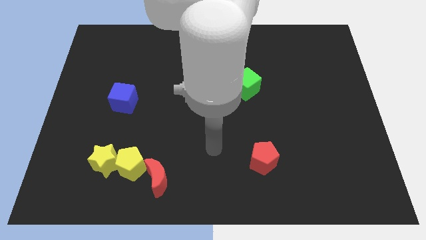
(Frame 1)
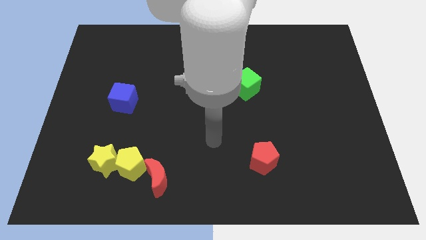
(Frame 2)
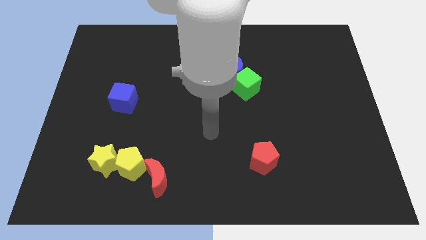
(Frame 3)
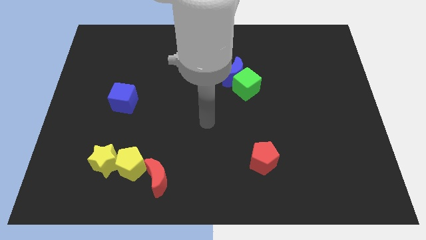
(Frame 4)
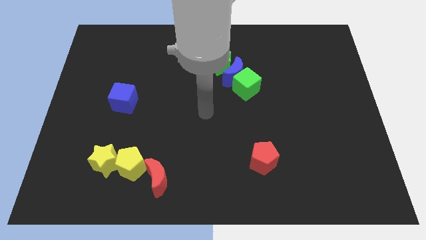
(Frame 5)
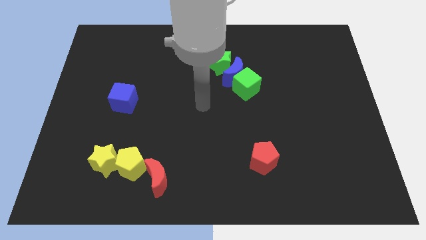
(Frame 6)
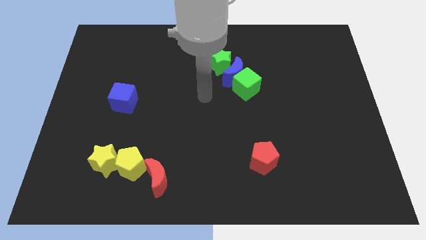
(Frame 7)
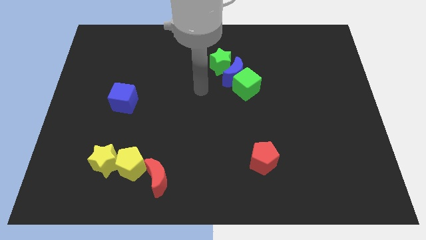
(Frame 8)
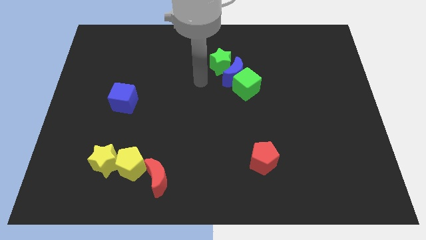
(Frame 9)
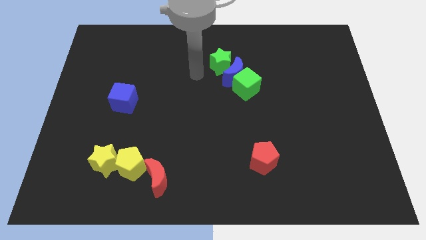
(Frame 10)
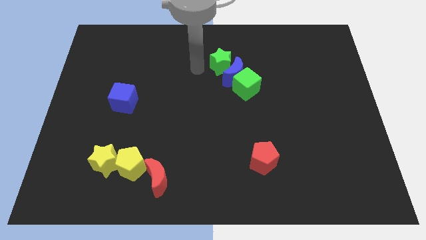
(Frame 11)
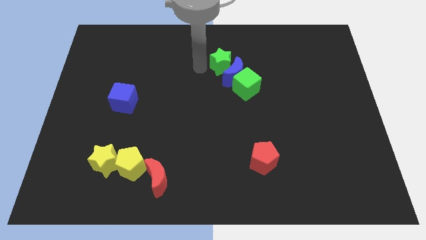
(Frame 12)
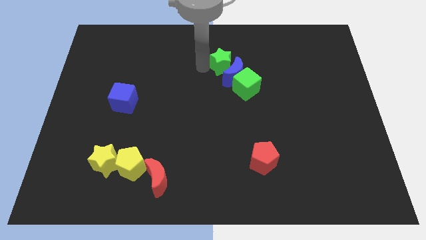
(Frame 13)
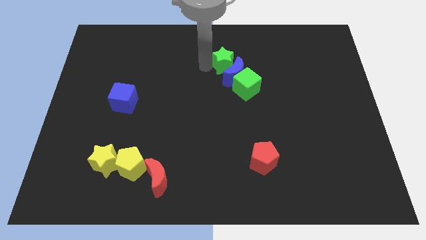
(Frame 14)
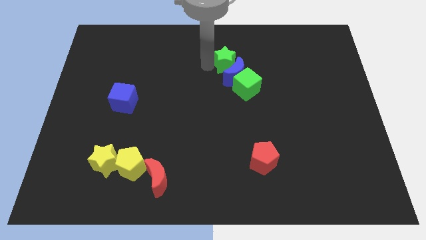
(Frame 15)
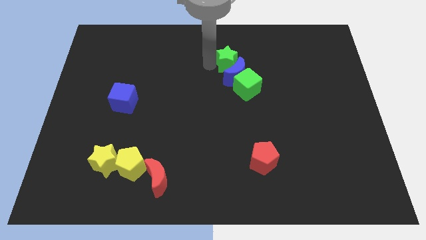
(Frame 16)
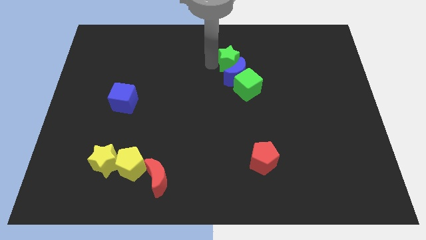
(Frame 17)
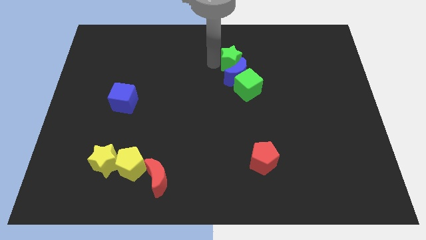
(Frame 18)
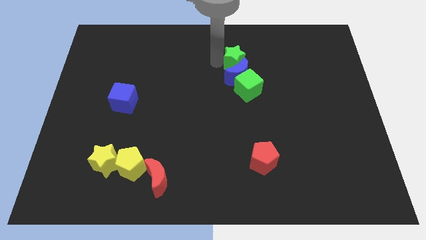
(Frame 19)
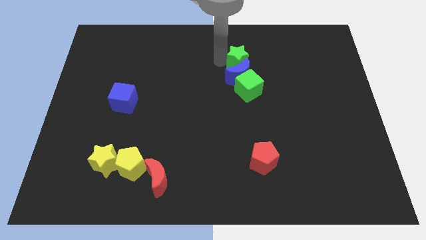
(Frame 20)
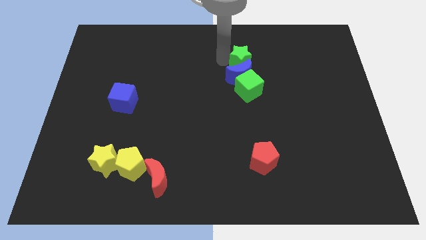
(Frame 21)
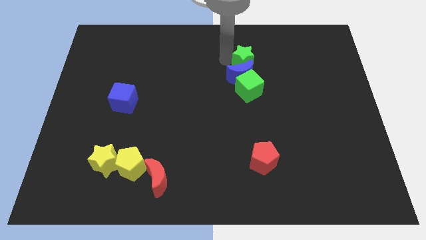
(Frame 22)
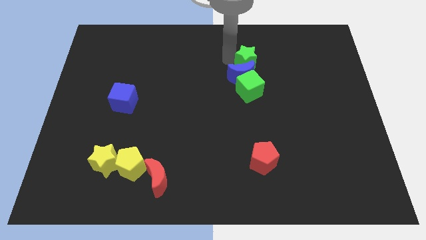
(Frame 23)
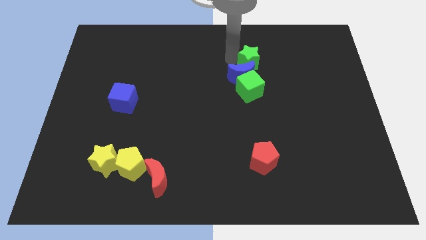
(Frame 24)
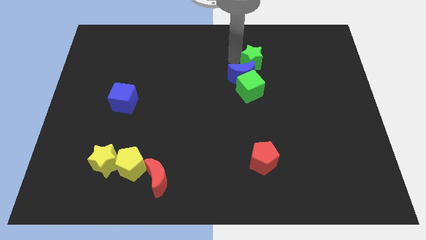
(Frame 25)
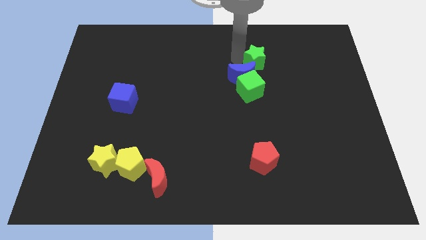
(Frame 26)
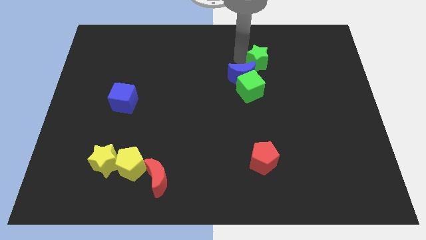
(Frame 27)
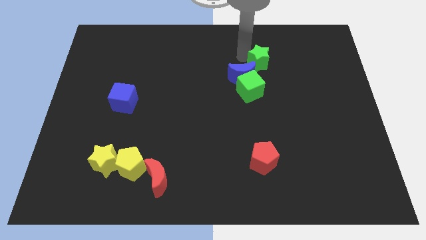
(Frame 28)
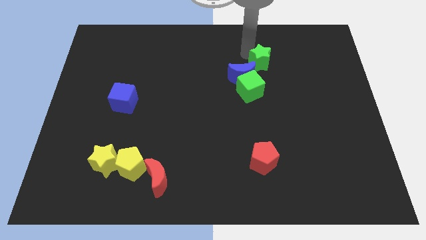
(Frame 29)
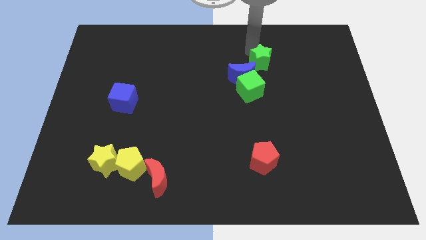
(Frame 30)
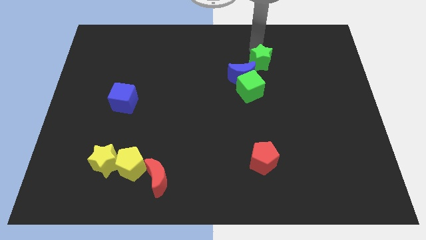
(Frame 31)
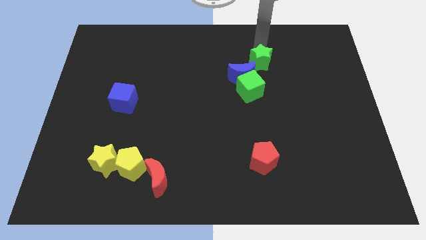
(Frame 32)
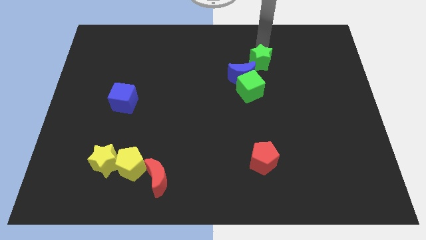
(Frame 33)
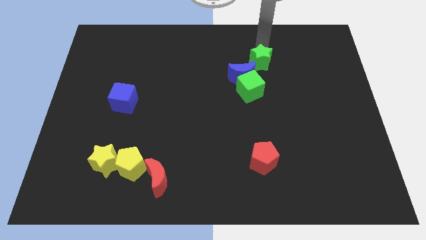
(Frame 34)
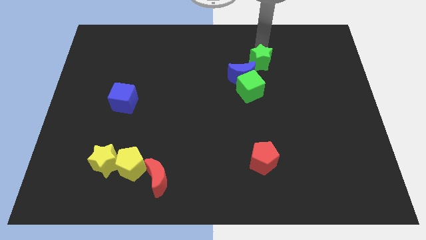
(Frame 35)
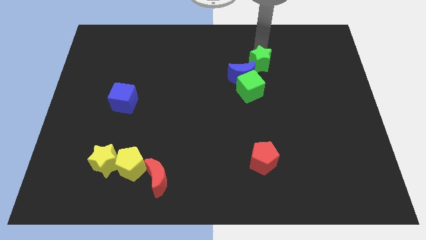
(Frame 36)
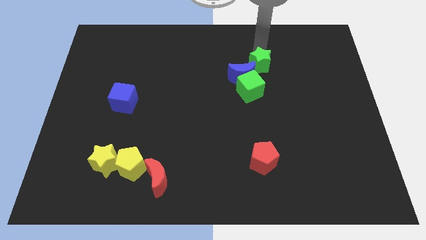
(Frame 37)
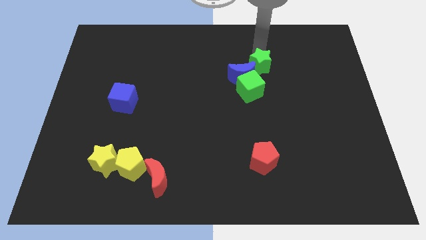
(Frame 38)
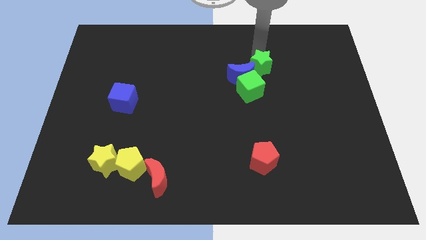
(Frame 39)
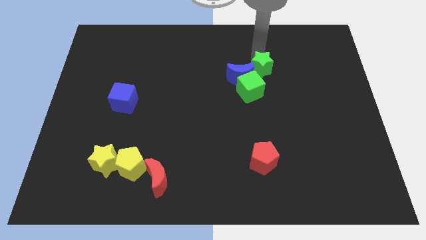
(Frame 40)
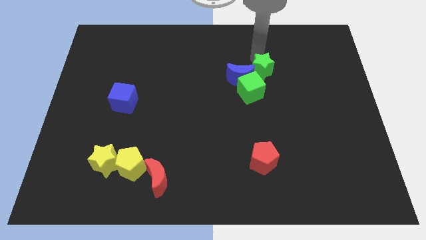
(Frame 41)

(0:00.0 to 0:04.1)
slightly move the green star downwards and to the right

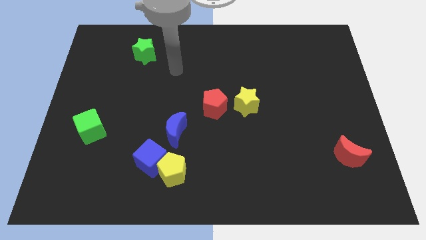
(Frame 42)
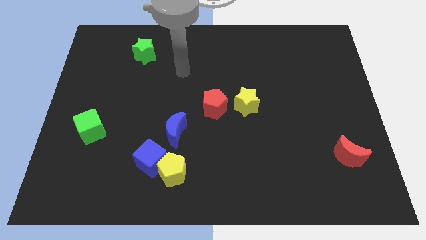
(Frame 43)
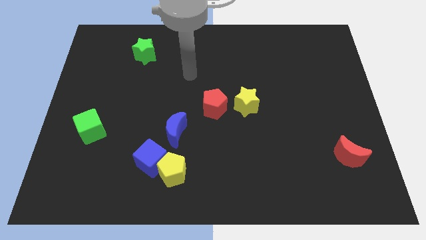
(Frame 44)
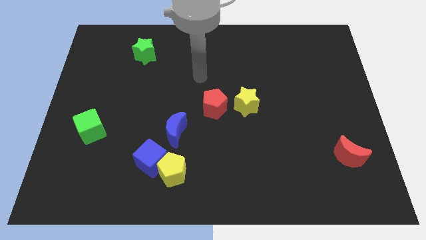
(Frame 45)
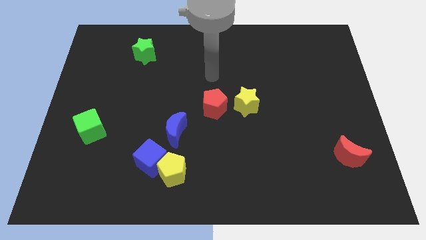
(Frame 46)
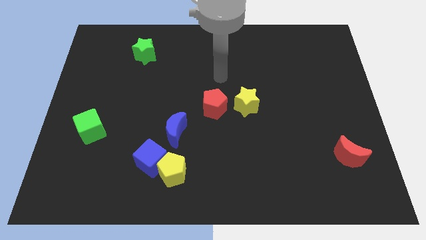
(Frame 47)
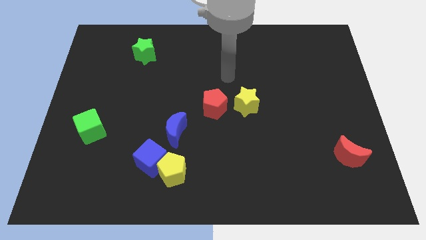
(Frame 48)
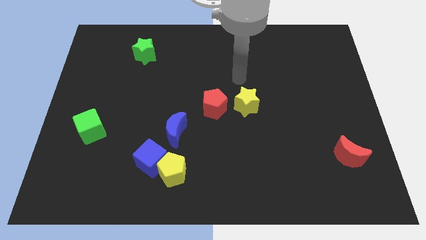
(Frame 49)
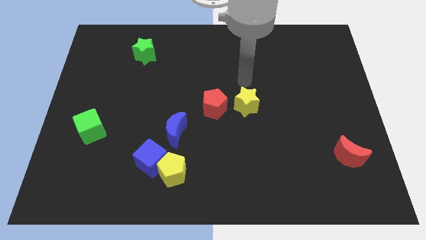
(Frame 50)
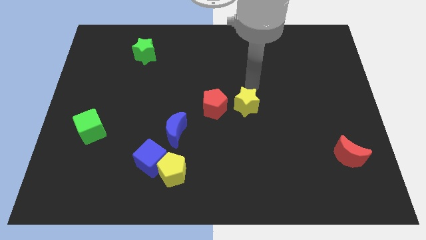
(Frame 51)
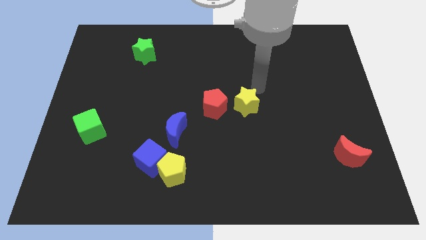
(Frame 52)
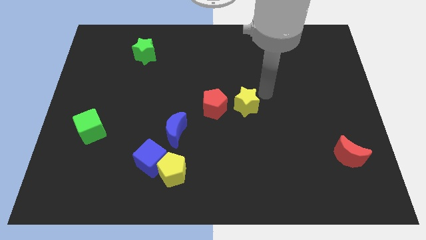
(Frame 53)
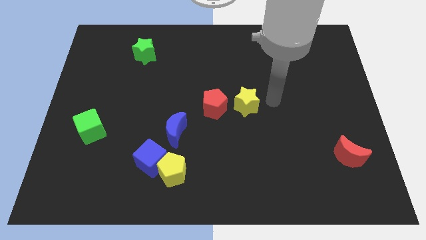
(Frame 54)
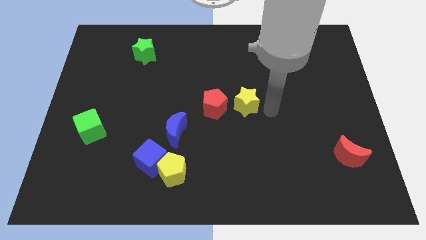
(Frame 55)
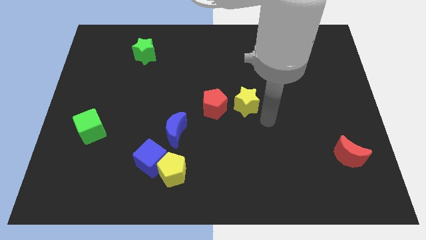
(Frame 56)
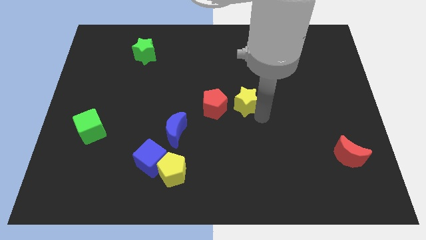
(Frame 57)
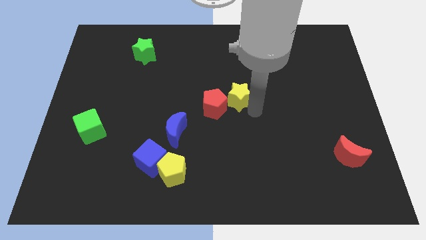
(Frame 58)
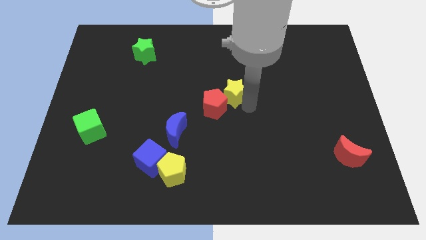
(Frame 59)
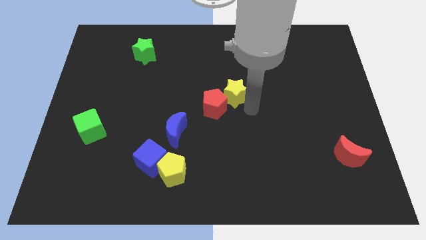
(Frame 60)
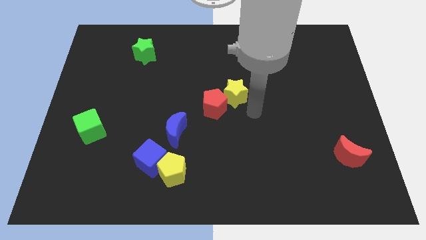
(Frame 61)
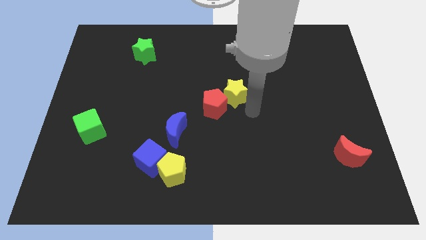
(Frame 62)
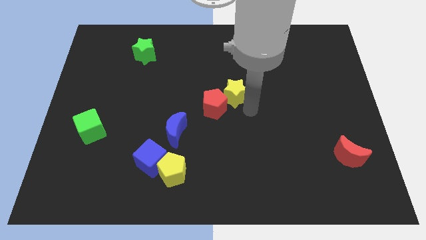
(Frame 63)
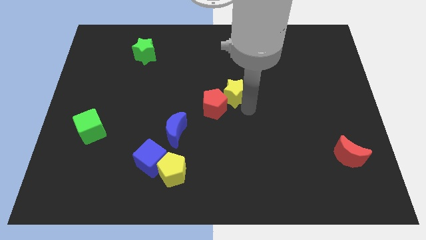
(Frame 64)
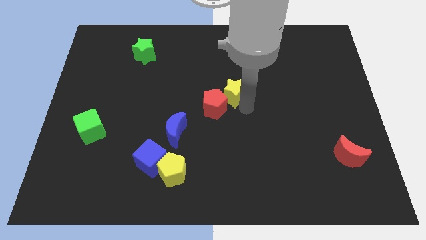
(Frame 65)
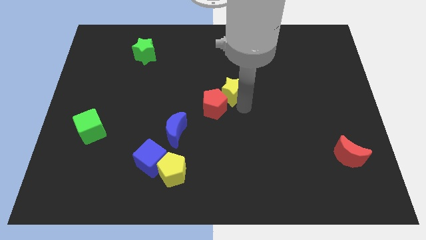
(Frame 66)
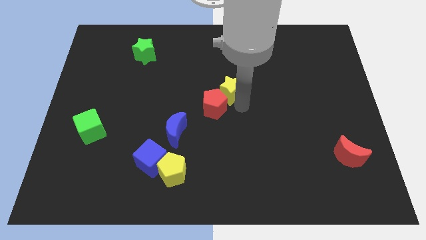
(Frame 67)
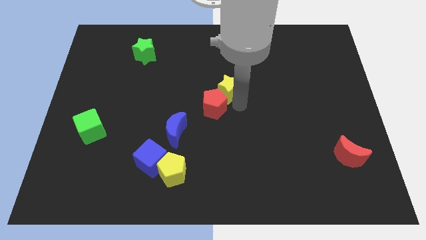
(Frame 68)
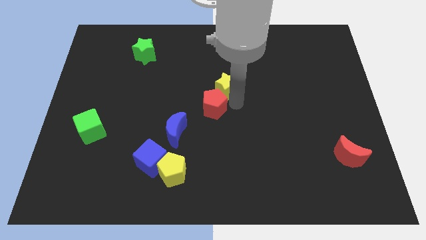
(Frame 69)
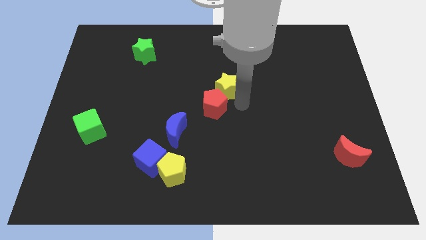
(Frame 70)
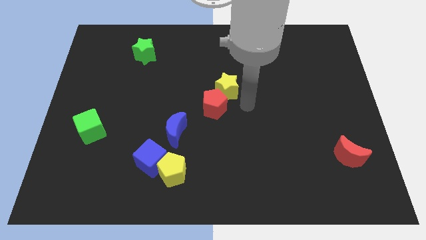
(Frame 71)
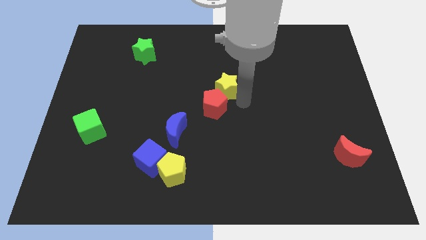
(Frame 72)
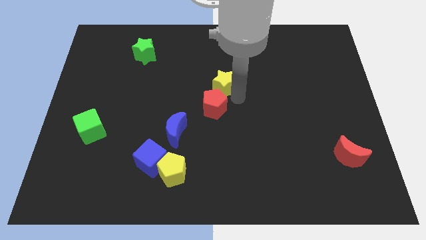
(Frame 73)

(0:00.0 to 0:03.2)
move the yellow star slightly up and to the left diagonally

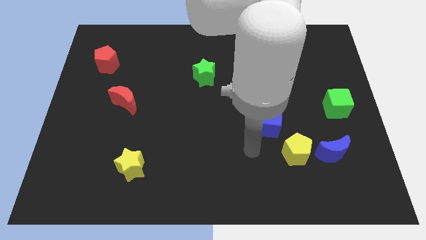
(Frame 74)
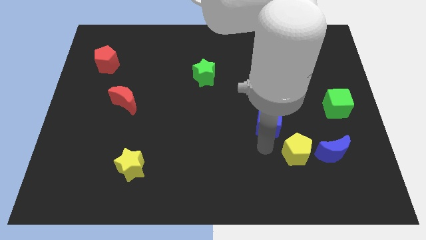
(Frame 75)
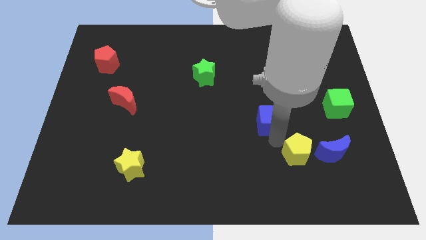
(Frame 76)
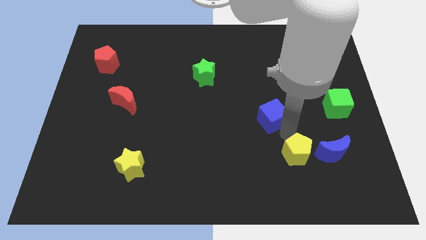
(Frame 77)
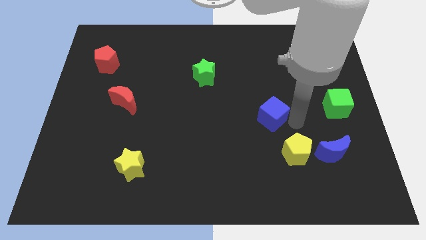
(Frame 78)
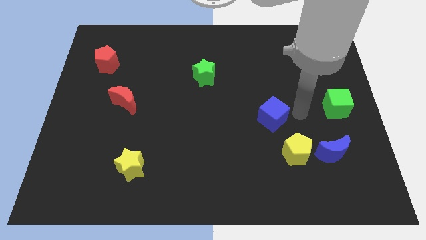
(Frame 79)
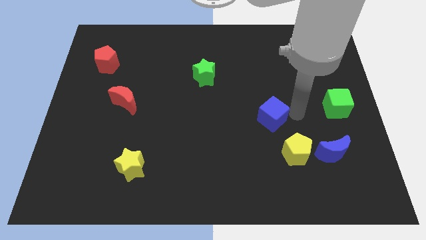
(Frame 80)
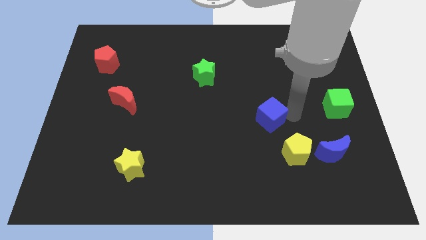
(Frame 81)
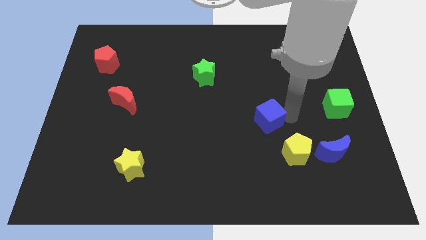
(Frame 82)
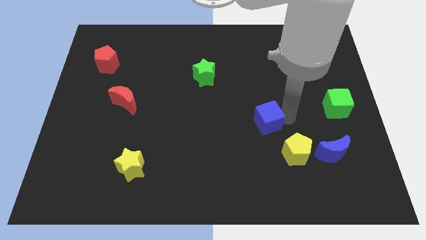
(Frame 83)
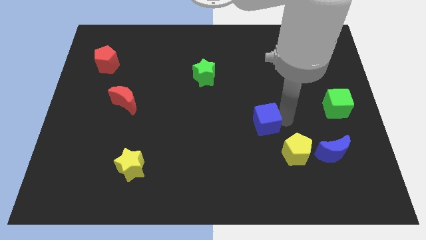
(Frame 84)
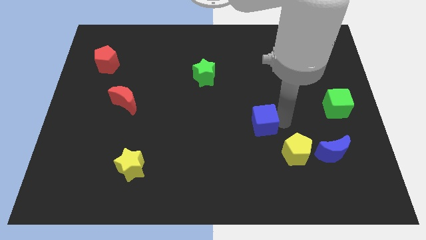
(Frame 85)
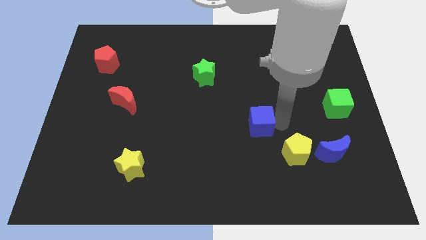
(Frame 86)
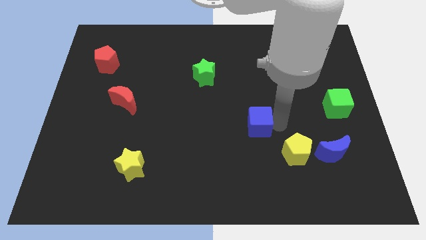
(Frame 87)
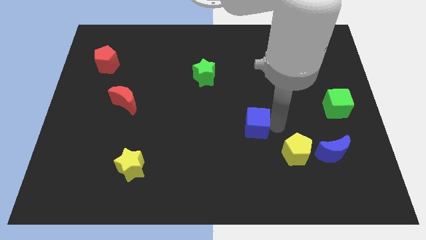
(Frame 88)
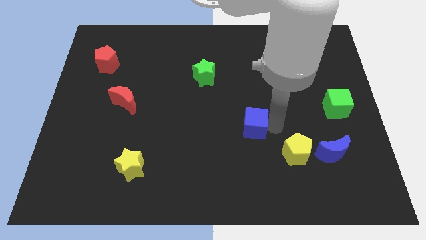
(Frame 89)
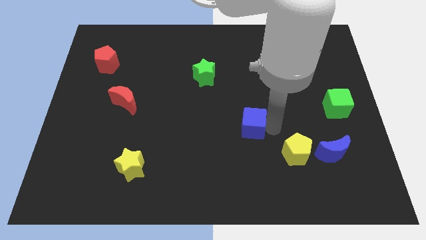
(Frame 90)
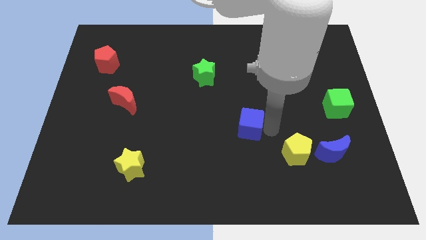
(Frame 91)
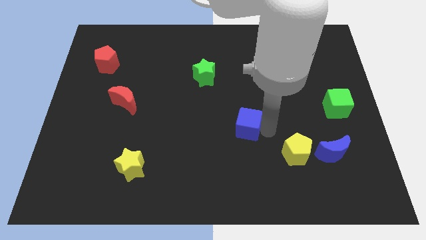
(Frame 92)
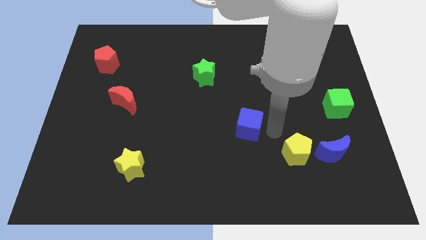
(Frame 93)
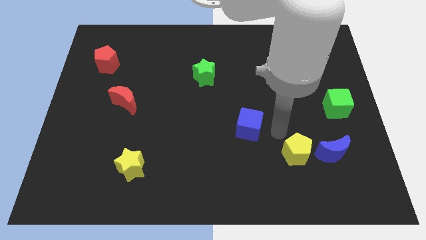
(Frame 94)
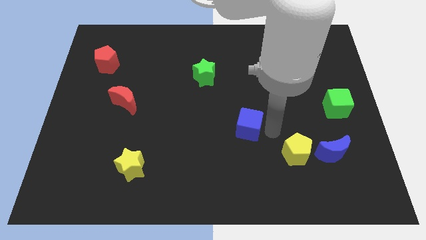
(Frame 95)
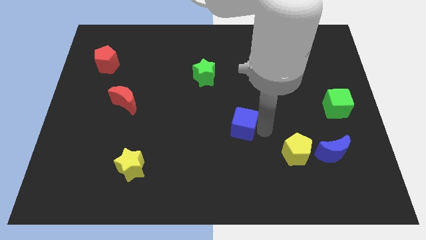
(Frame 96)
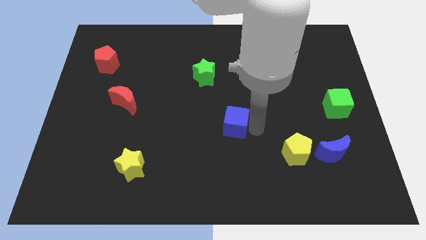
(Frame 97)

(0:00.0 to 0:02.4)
push the blue cube somewhat left
